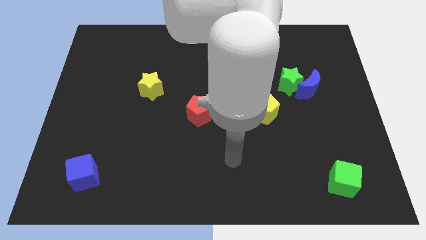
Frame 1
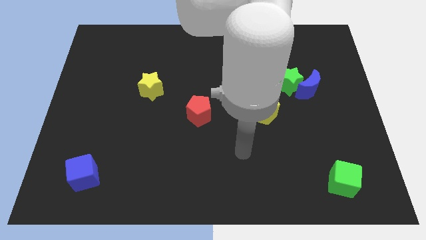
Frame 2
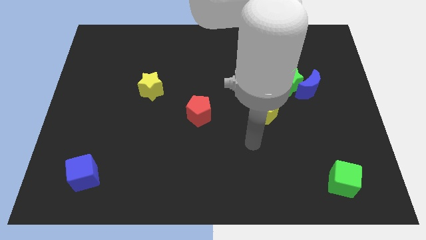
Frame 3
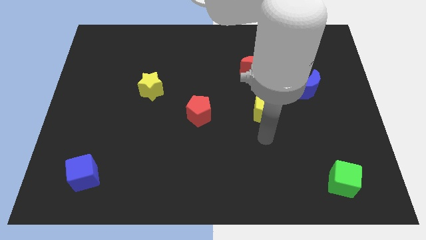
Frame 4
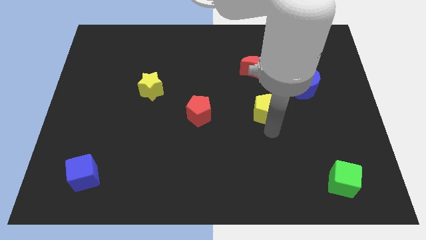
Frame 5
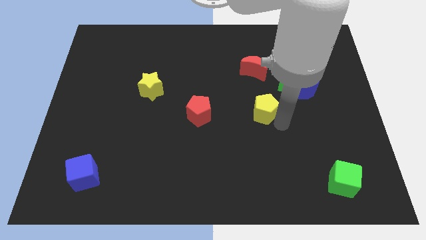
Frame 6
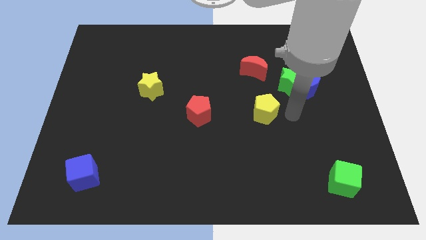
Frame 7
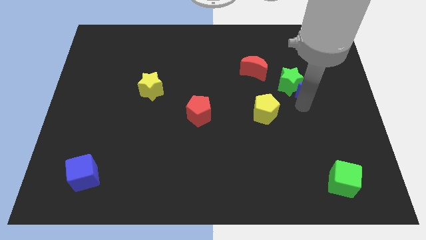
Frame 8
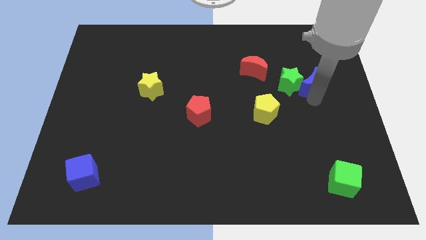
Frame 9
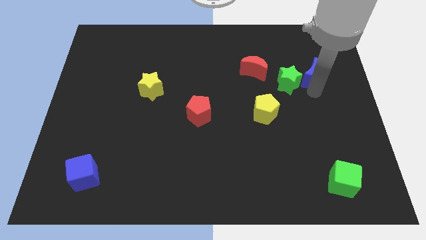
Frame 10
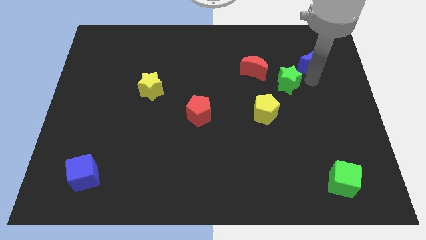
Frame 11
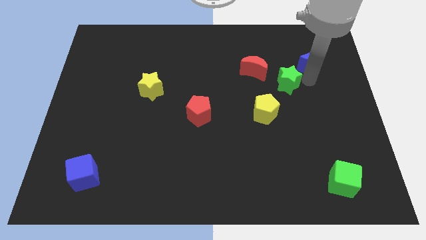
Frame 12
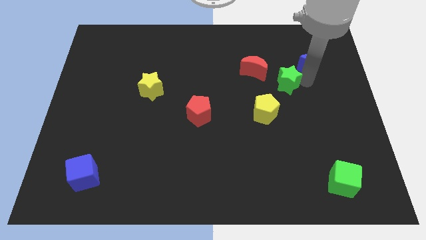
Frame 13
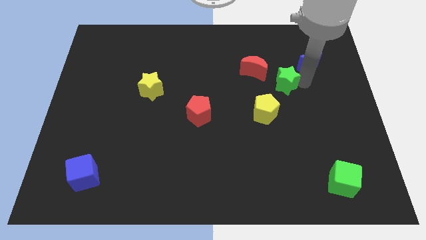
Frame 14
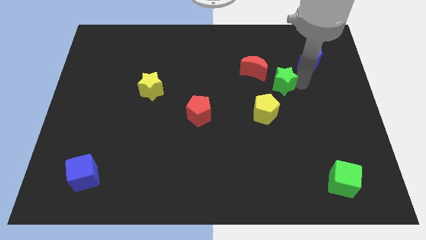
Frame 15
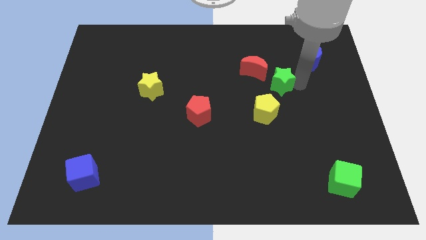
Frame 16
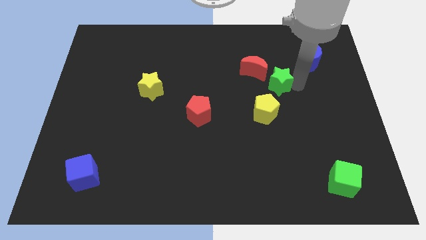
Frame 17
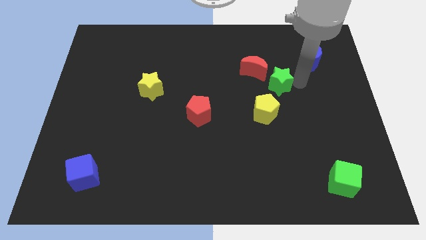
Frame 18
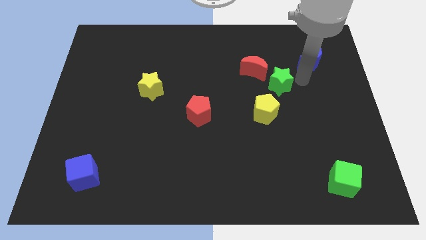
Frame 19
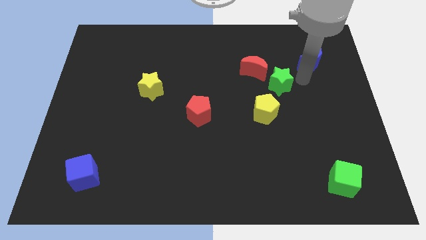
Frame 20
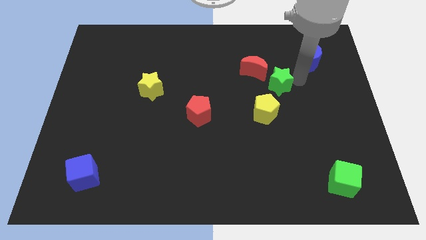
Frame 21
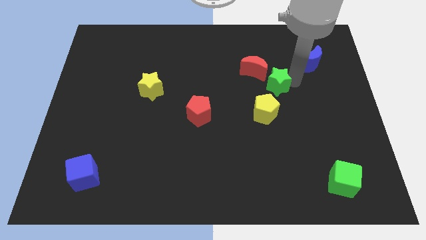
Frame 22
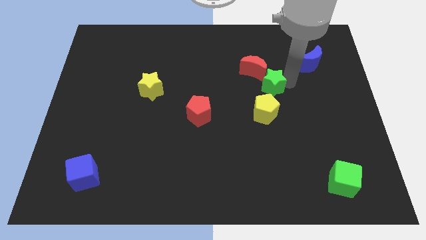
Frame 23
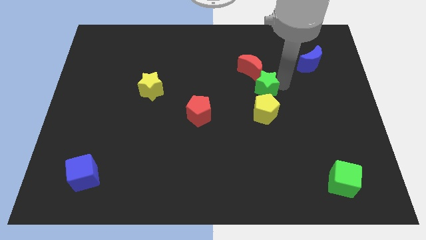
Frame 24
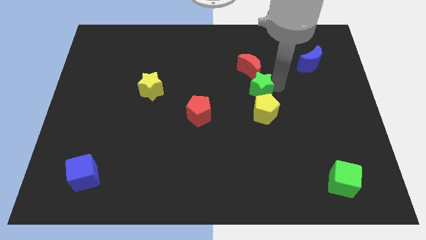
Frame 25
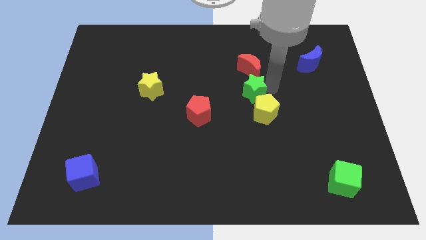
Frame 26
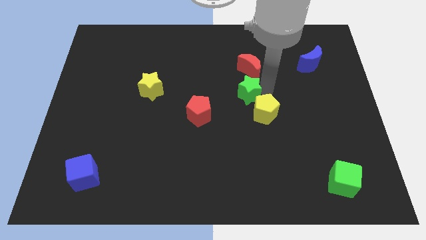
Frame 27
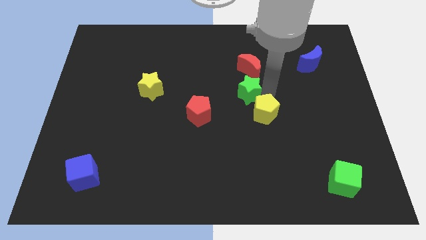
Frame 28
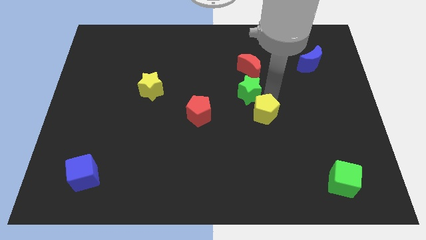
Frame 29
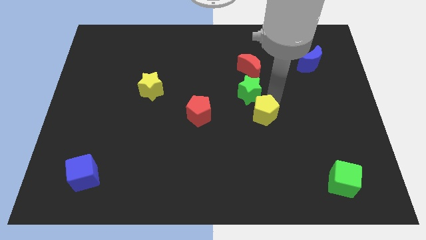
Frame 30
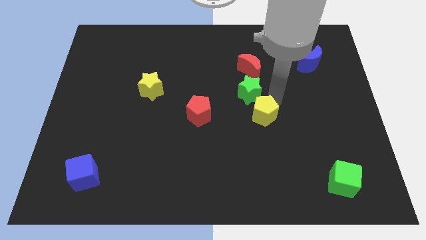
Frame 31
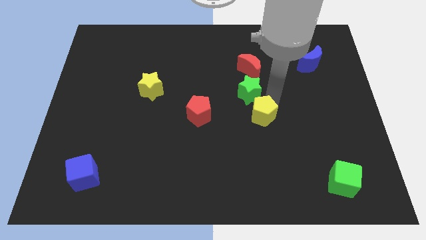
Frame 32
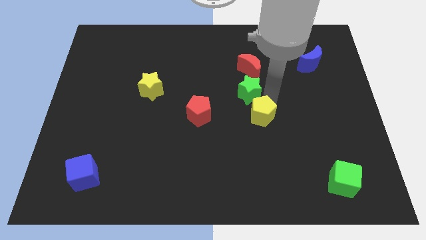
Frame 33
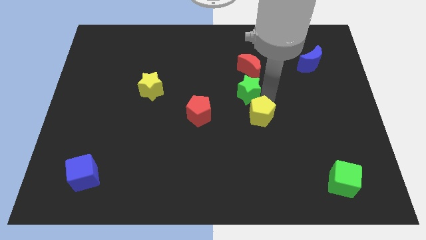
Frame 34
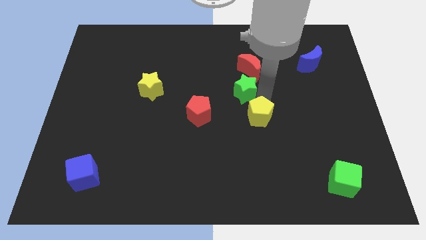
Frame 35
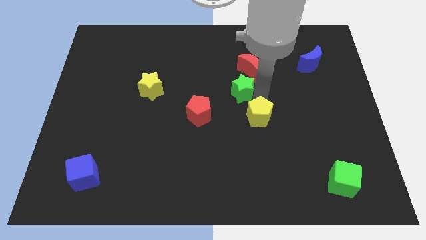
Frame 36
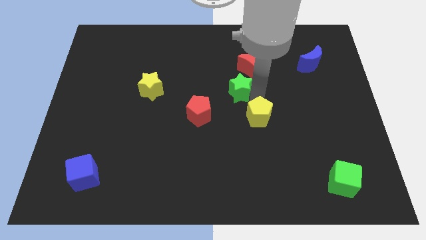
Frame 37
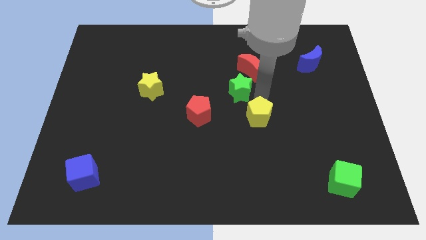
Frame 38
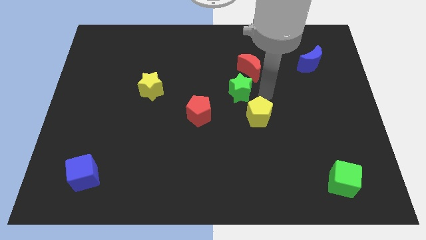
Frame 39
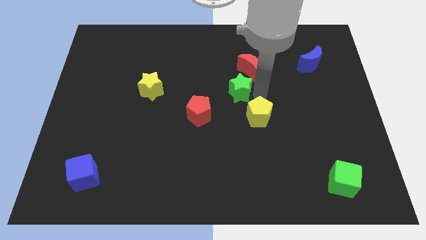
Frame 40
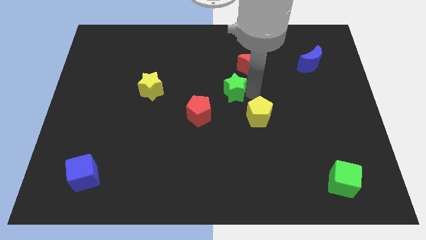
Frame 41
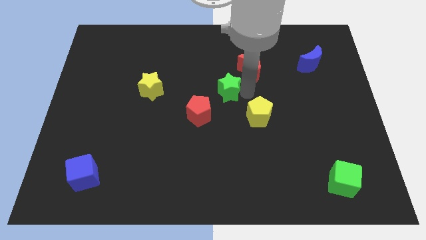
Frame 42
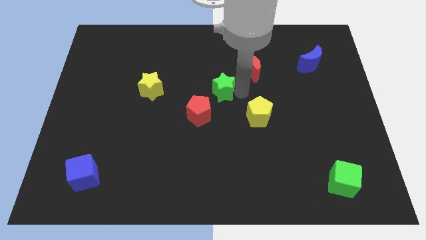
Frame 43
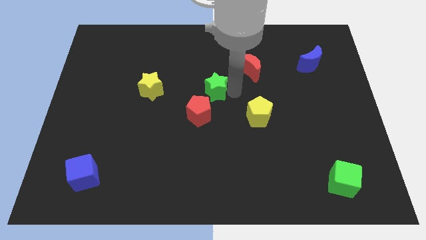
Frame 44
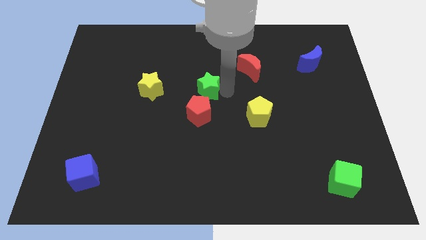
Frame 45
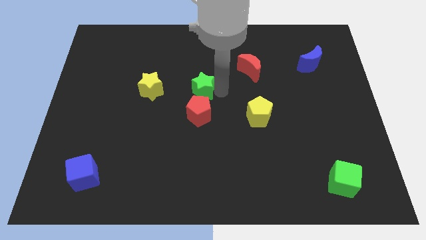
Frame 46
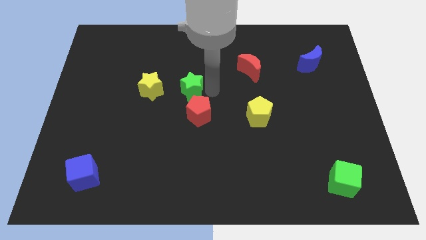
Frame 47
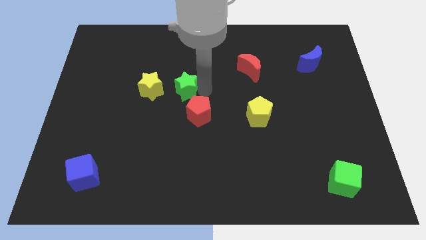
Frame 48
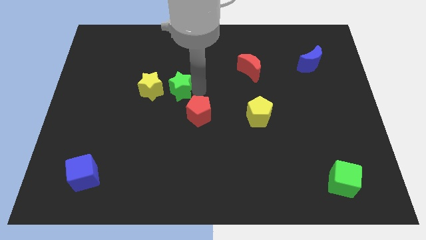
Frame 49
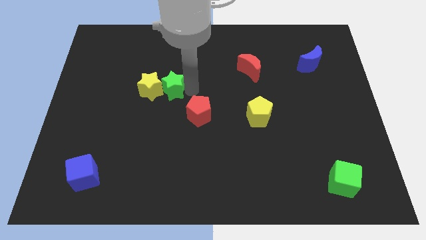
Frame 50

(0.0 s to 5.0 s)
put the green star next to the yellow star

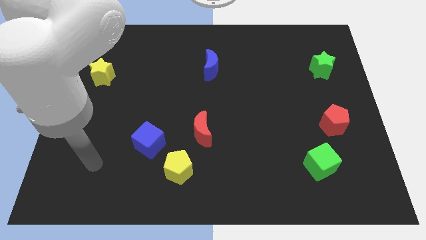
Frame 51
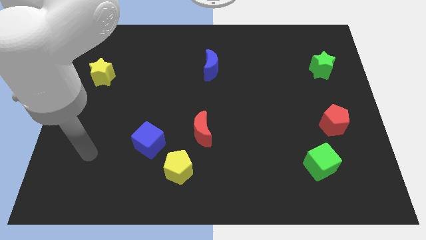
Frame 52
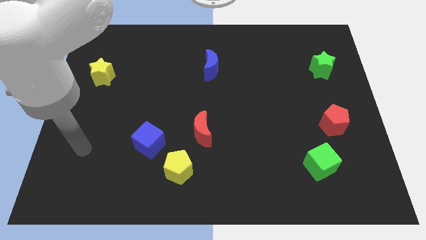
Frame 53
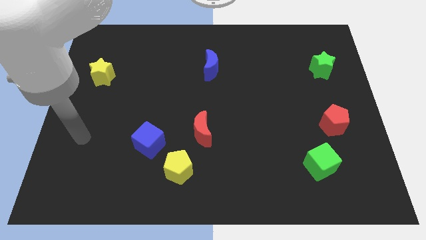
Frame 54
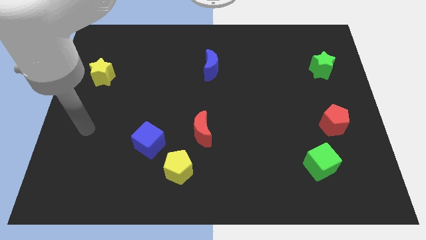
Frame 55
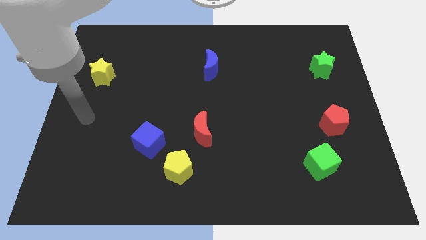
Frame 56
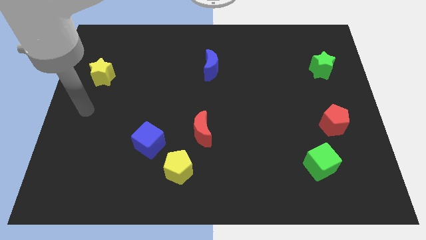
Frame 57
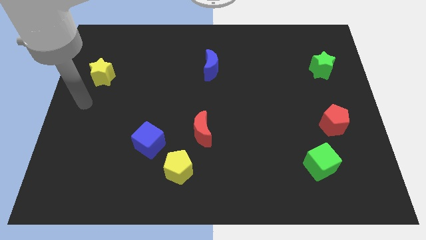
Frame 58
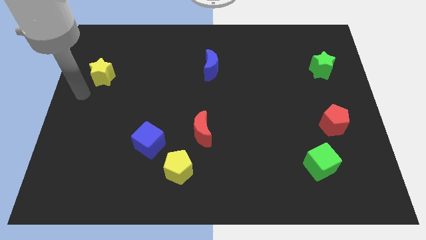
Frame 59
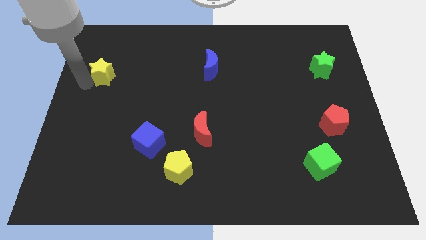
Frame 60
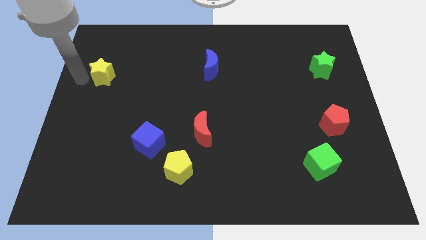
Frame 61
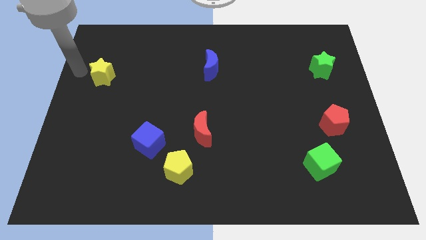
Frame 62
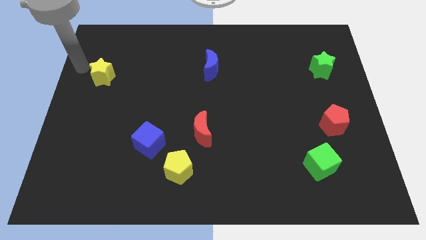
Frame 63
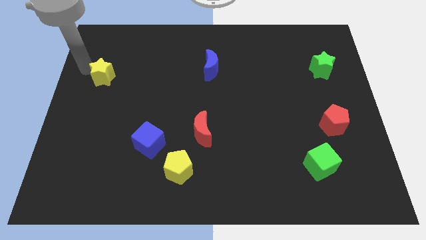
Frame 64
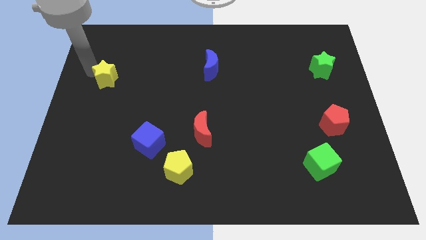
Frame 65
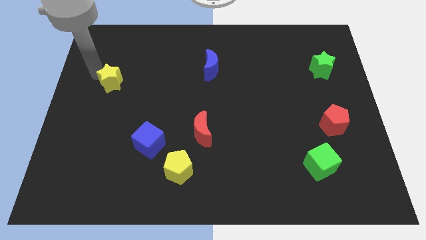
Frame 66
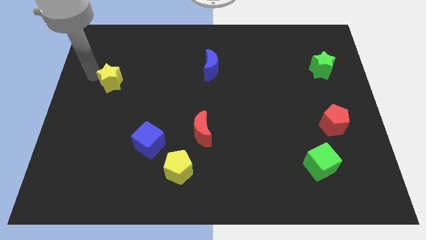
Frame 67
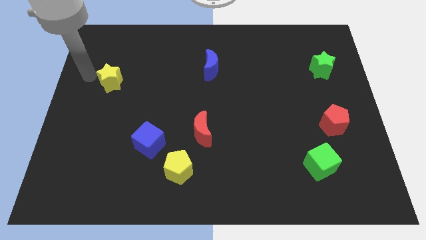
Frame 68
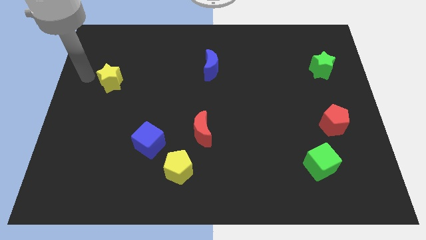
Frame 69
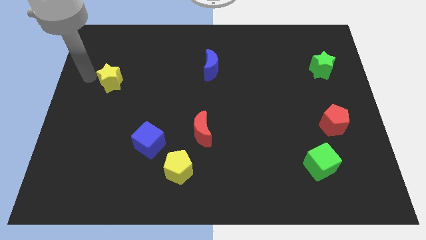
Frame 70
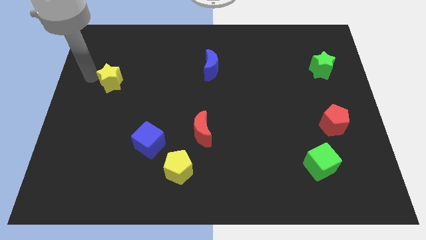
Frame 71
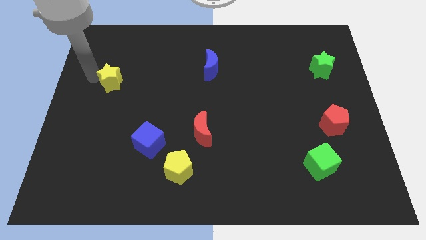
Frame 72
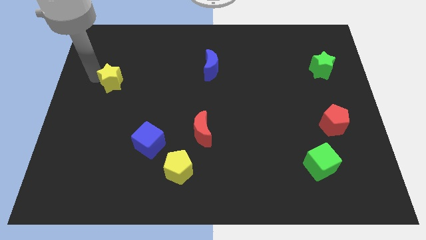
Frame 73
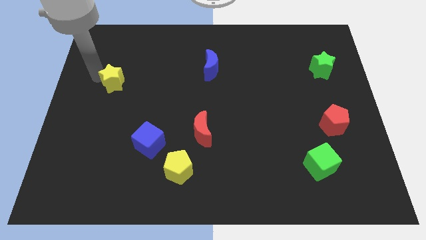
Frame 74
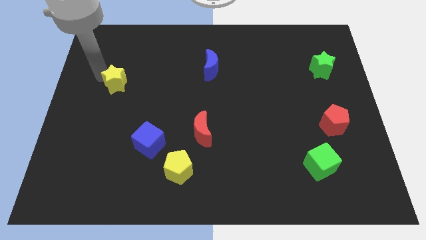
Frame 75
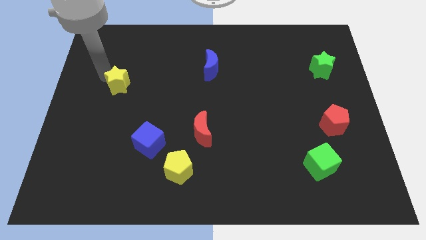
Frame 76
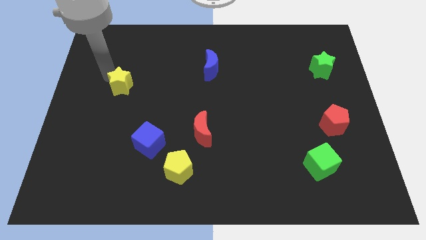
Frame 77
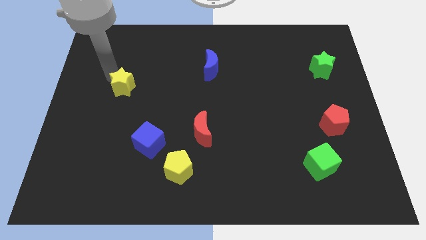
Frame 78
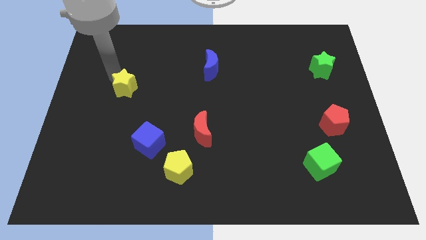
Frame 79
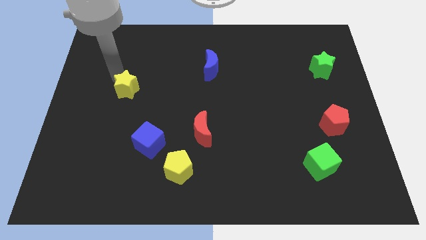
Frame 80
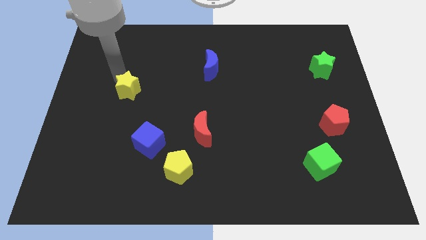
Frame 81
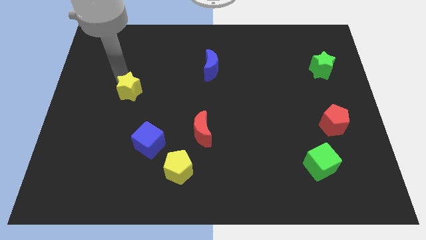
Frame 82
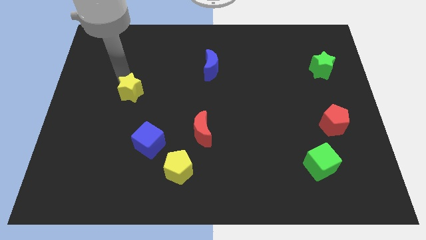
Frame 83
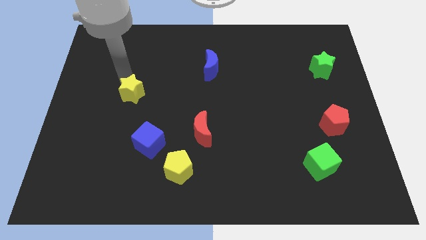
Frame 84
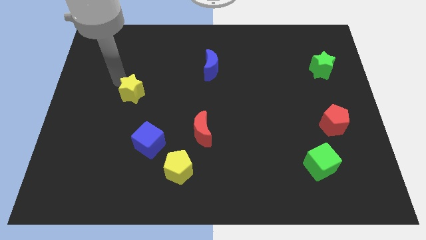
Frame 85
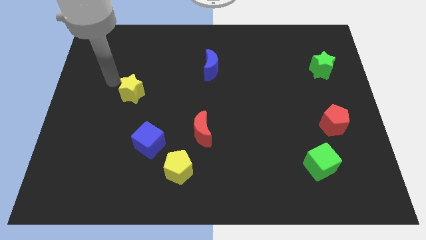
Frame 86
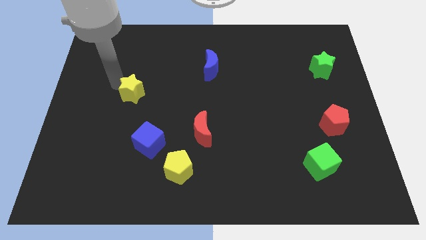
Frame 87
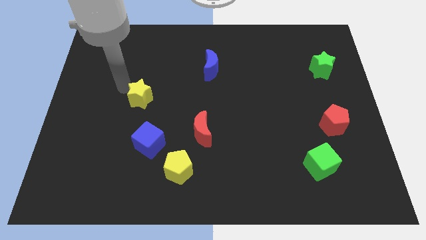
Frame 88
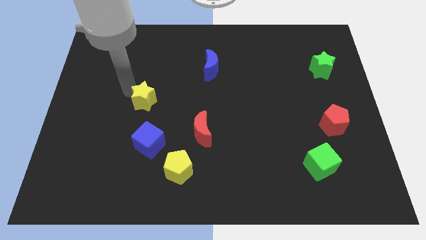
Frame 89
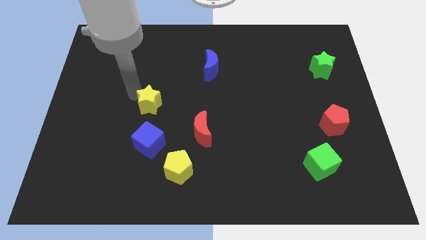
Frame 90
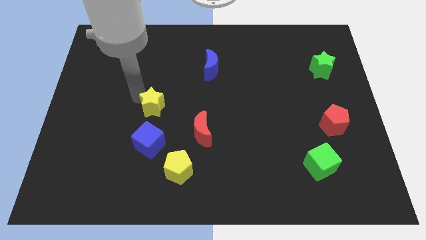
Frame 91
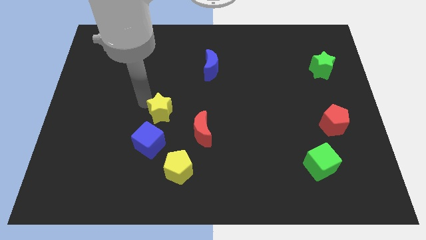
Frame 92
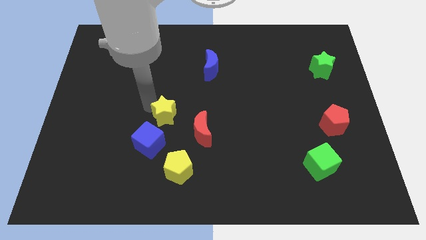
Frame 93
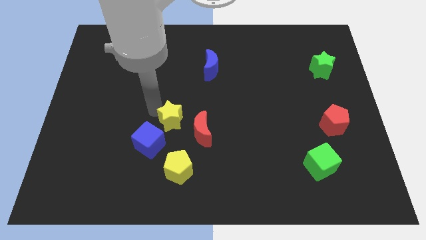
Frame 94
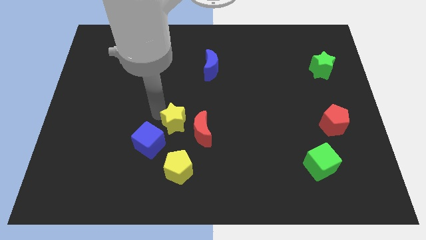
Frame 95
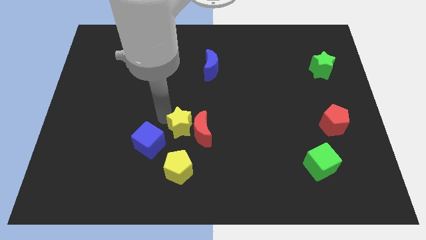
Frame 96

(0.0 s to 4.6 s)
move the yellow star next to the red moon
